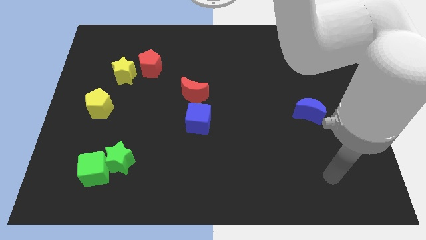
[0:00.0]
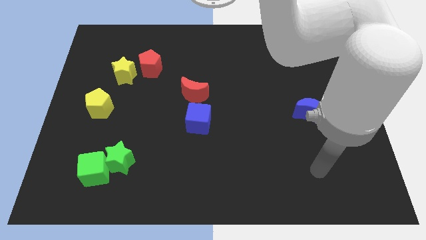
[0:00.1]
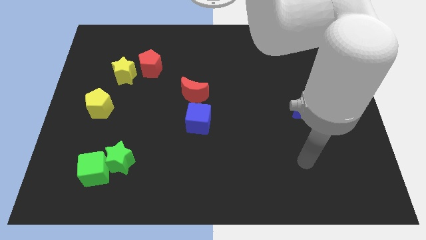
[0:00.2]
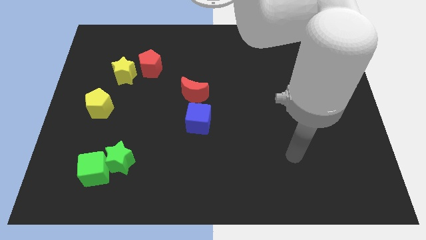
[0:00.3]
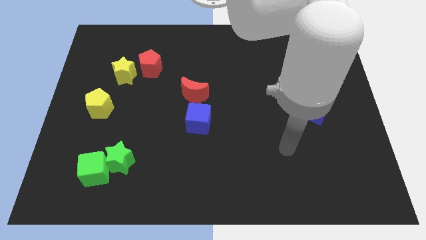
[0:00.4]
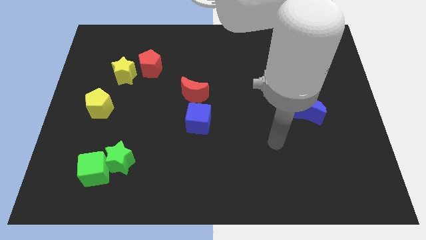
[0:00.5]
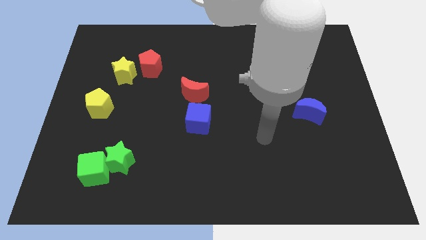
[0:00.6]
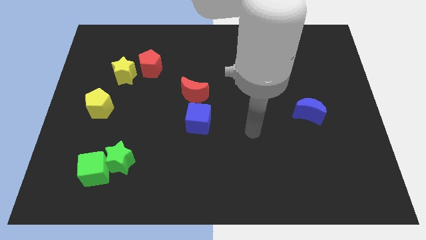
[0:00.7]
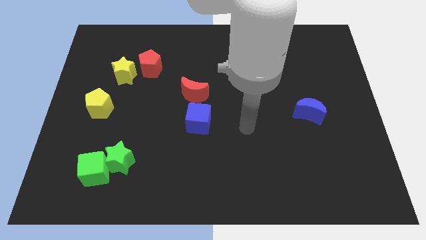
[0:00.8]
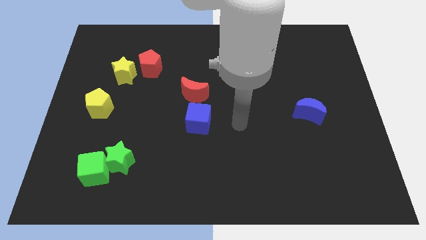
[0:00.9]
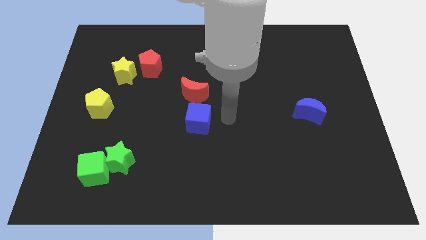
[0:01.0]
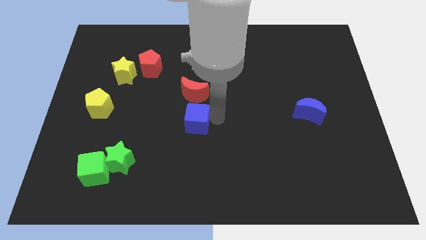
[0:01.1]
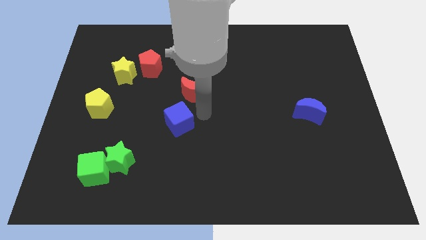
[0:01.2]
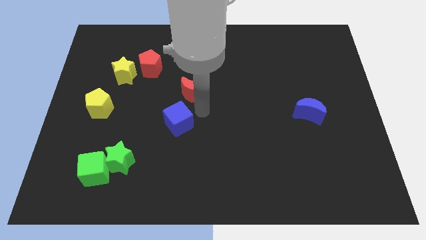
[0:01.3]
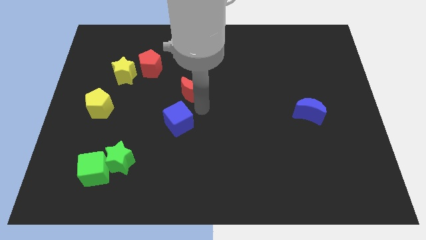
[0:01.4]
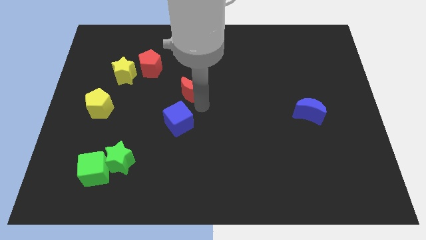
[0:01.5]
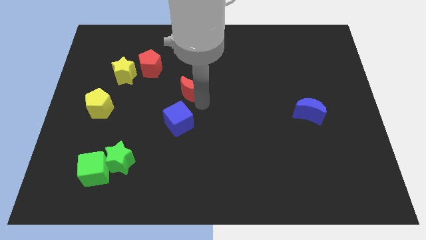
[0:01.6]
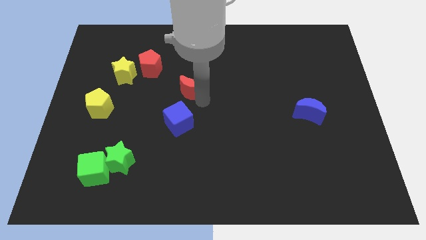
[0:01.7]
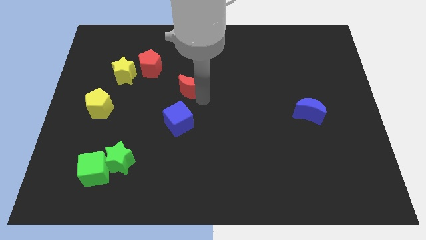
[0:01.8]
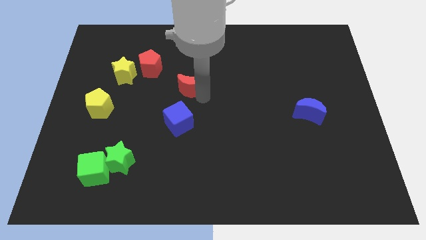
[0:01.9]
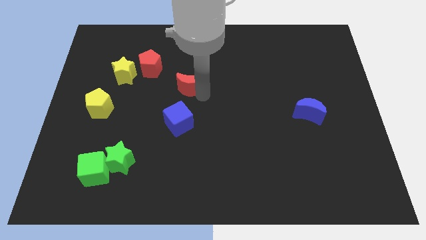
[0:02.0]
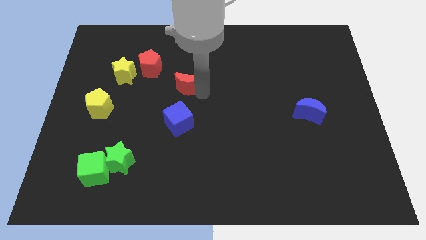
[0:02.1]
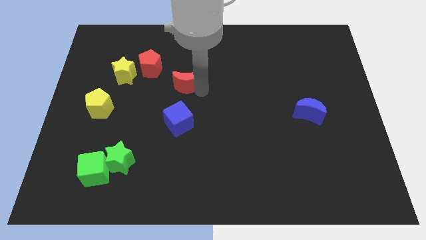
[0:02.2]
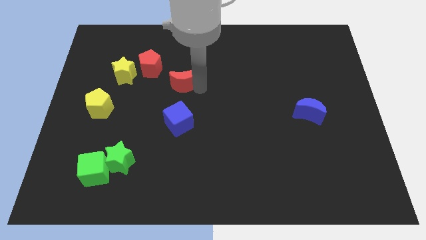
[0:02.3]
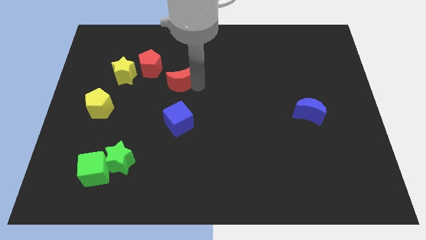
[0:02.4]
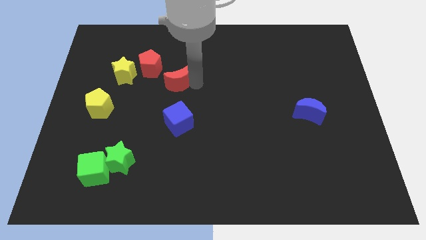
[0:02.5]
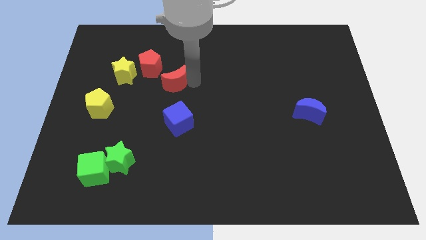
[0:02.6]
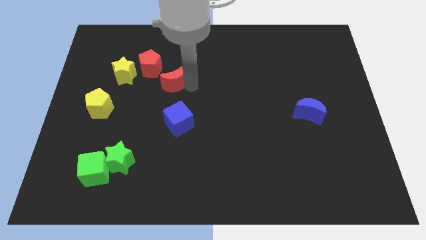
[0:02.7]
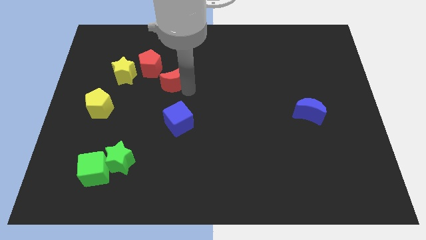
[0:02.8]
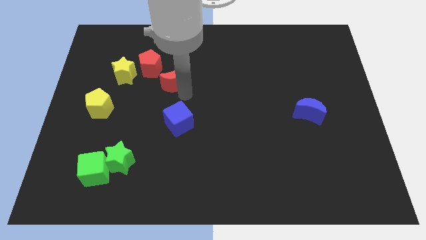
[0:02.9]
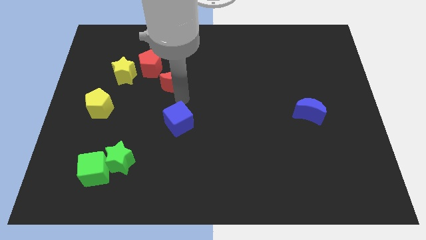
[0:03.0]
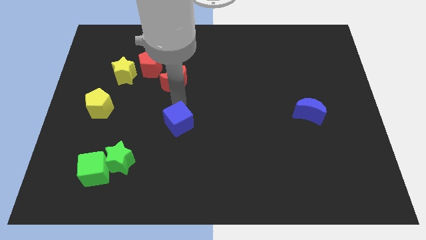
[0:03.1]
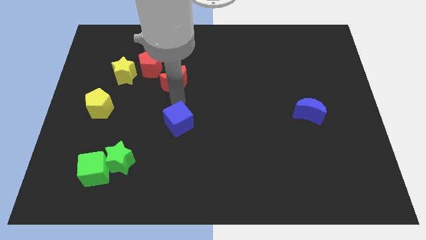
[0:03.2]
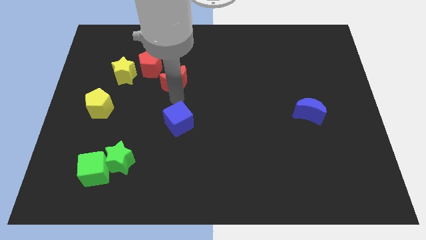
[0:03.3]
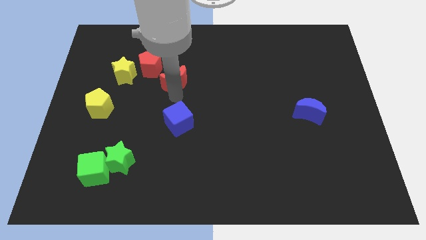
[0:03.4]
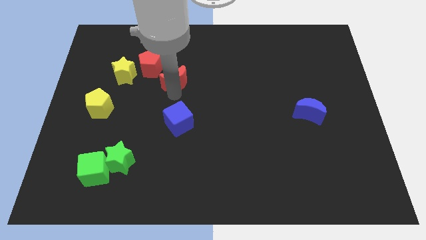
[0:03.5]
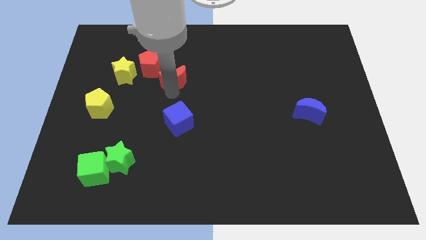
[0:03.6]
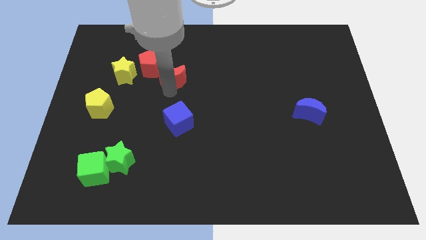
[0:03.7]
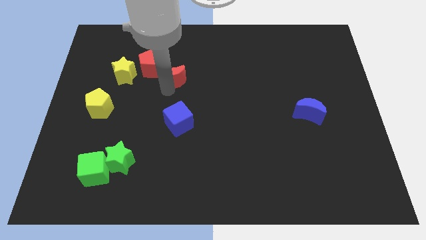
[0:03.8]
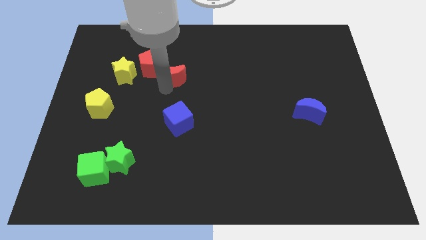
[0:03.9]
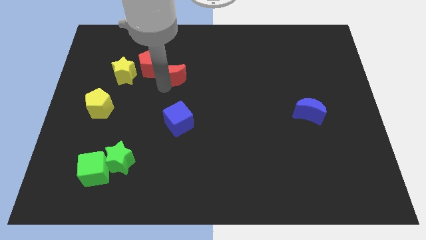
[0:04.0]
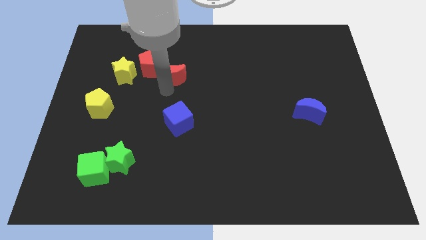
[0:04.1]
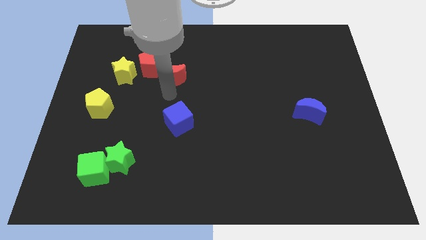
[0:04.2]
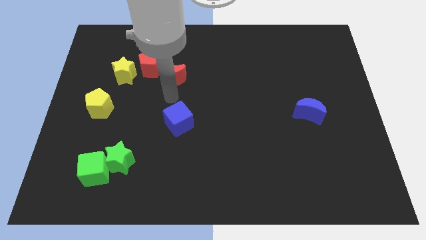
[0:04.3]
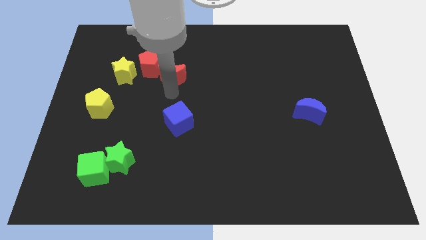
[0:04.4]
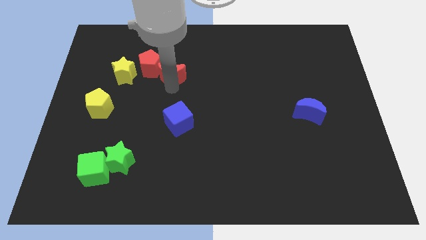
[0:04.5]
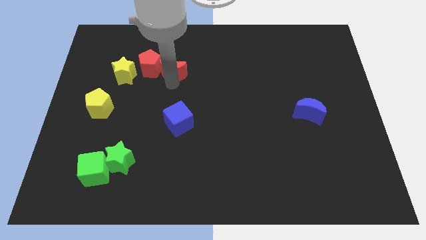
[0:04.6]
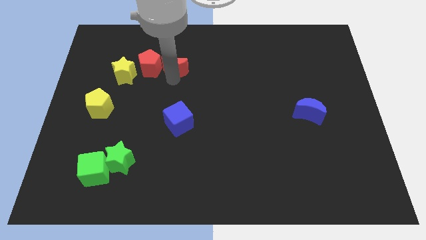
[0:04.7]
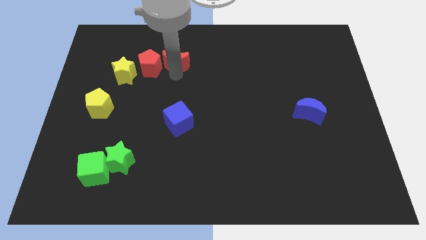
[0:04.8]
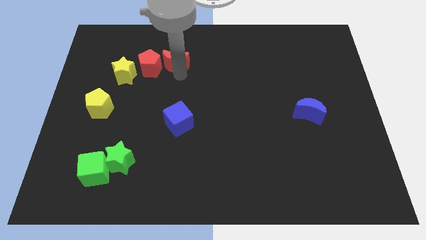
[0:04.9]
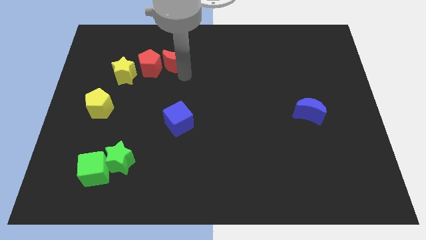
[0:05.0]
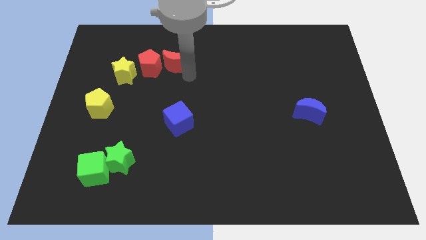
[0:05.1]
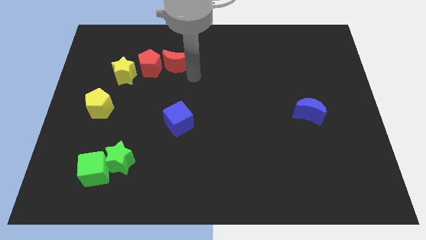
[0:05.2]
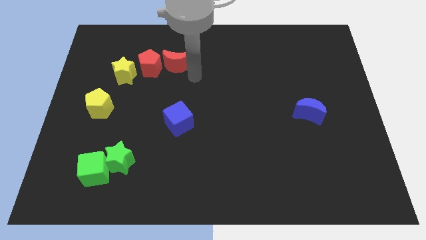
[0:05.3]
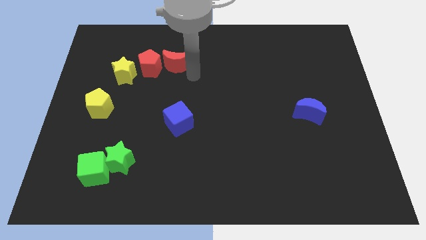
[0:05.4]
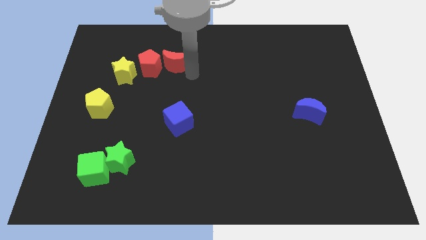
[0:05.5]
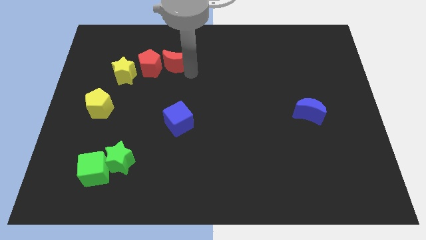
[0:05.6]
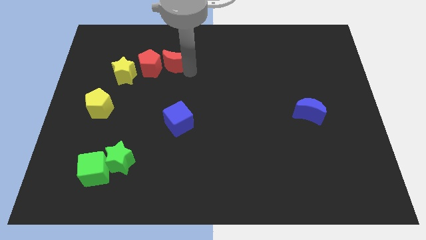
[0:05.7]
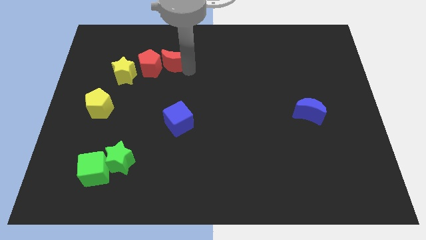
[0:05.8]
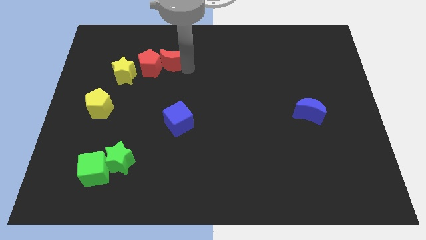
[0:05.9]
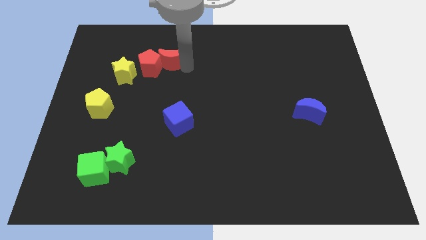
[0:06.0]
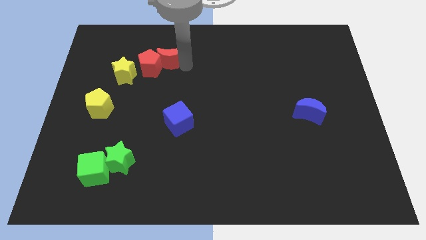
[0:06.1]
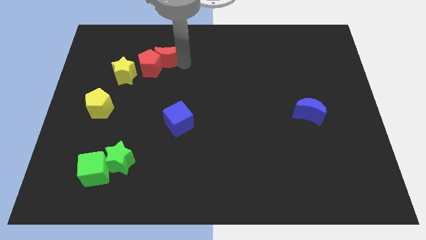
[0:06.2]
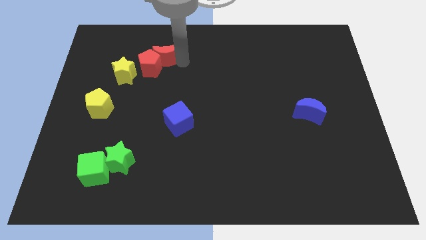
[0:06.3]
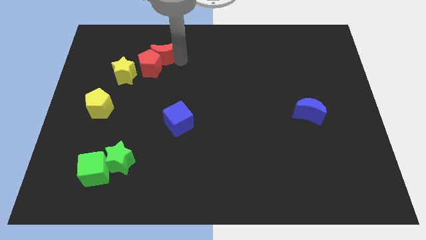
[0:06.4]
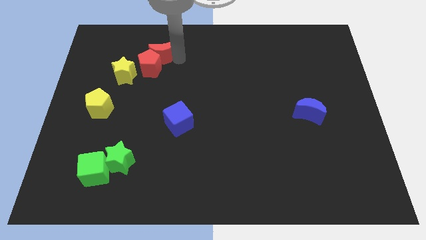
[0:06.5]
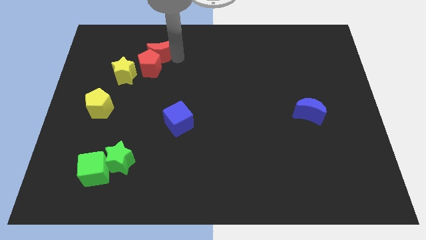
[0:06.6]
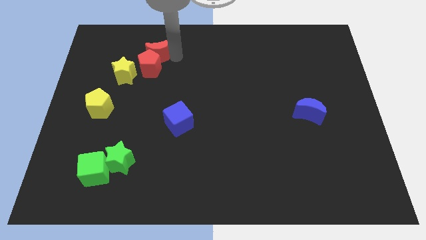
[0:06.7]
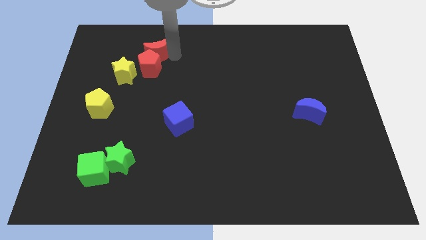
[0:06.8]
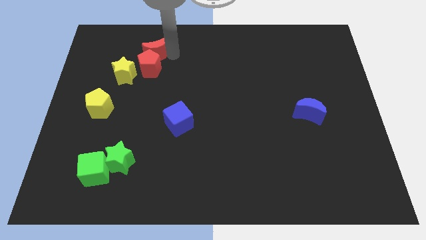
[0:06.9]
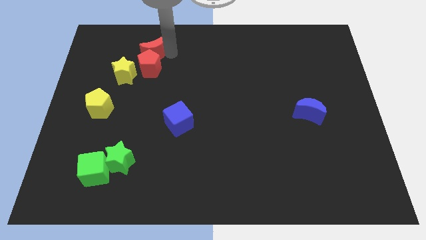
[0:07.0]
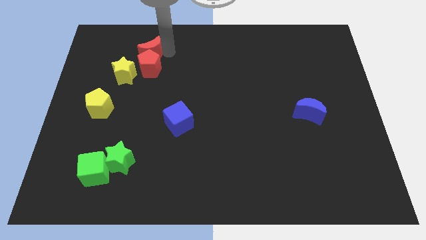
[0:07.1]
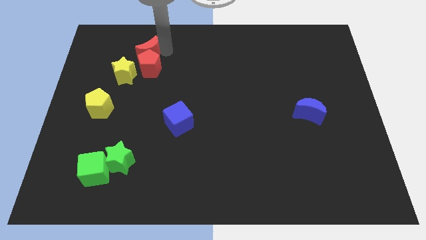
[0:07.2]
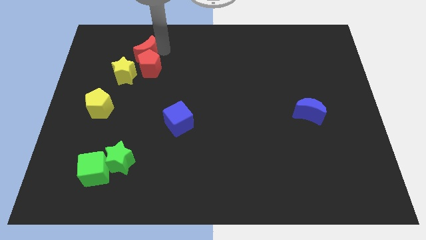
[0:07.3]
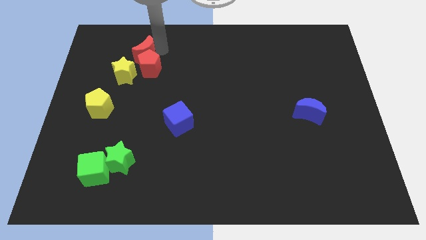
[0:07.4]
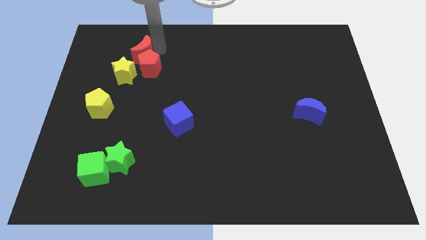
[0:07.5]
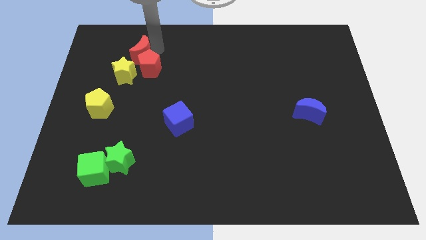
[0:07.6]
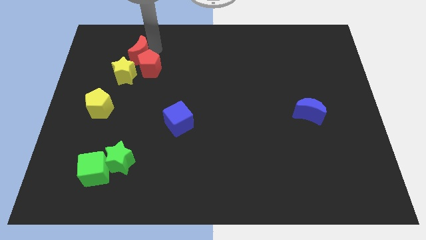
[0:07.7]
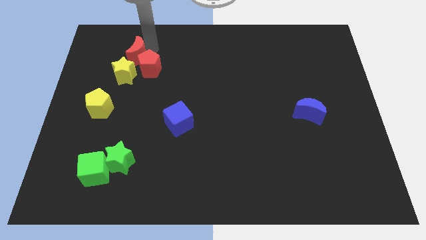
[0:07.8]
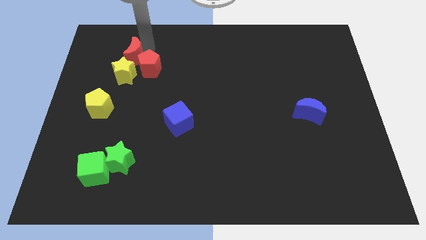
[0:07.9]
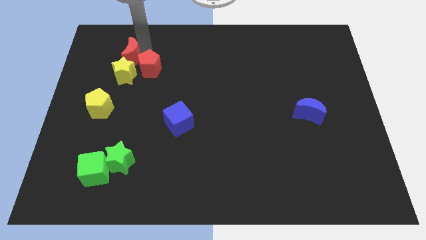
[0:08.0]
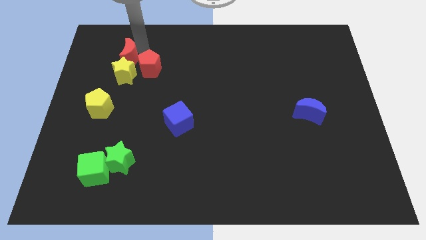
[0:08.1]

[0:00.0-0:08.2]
move the red moon to the top left of the yellow star
